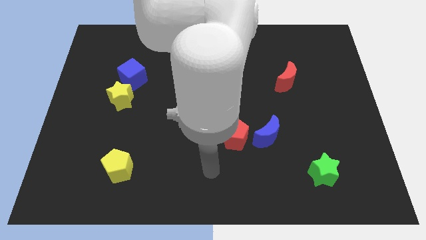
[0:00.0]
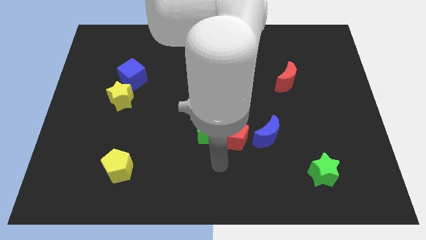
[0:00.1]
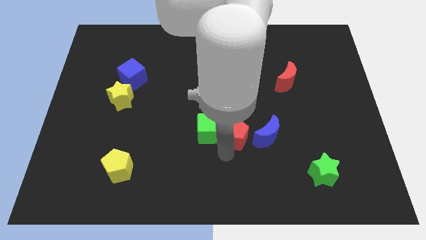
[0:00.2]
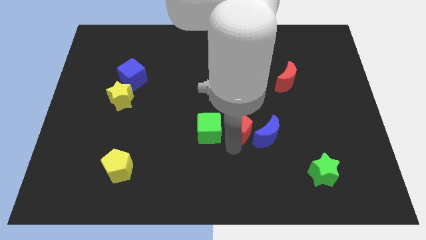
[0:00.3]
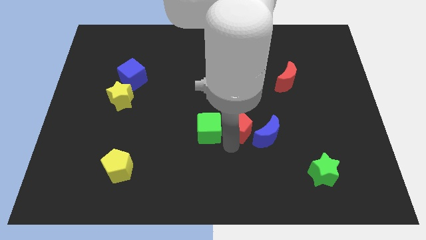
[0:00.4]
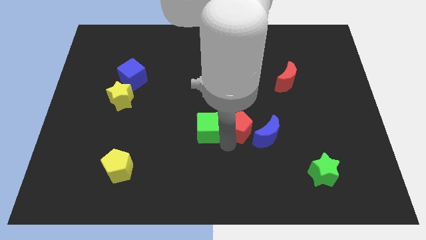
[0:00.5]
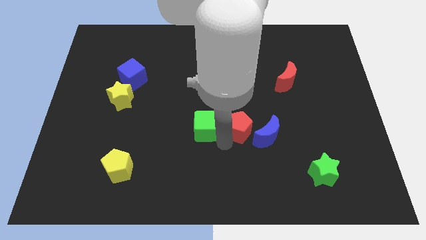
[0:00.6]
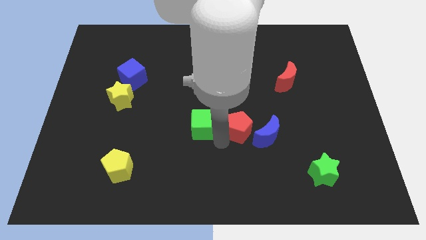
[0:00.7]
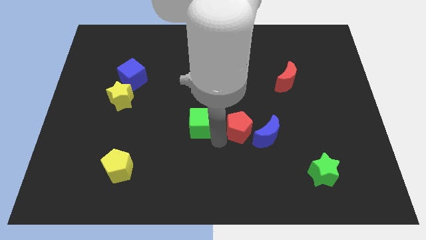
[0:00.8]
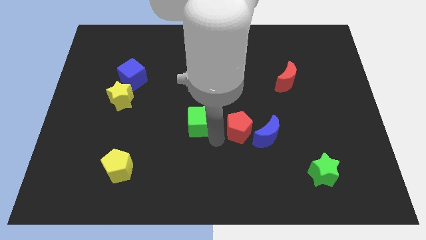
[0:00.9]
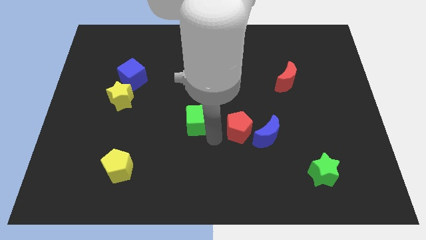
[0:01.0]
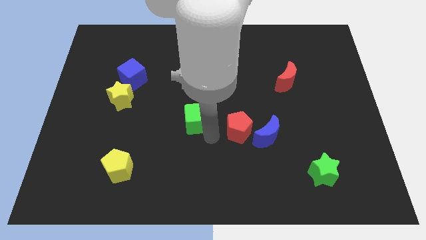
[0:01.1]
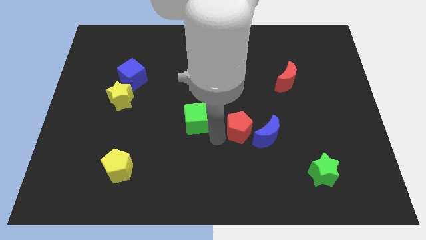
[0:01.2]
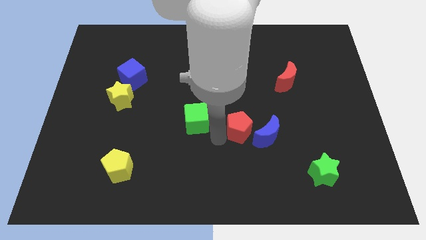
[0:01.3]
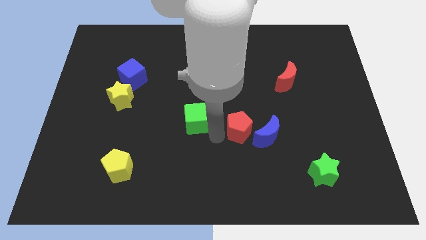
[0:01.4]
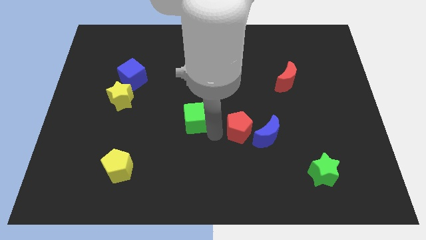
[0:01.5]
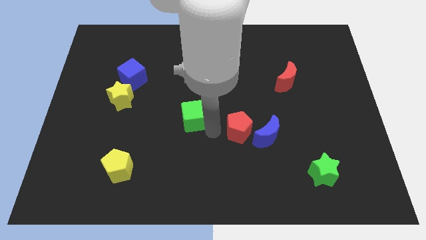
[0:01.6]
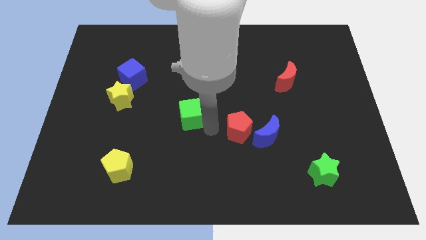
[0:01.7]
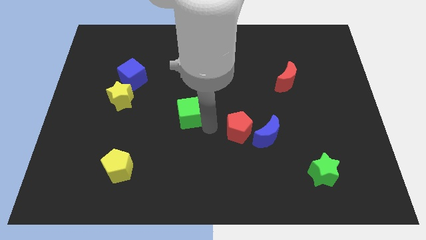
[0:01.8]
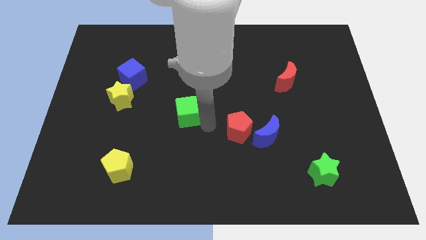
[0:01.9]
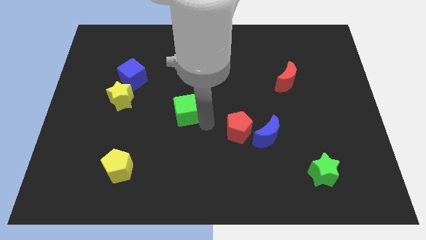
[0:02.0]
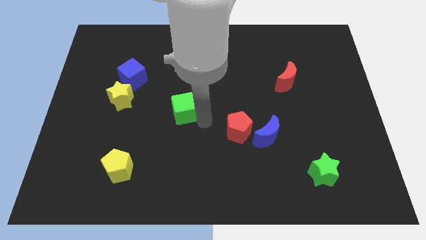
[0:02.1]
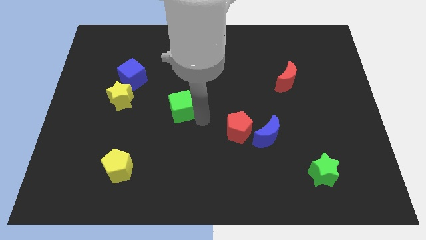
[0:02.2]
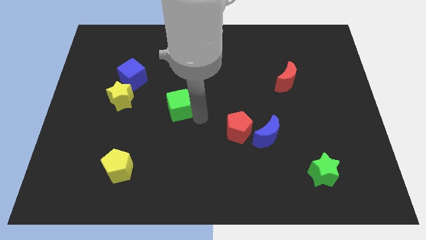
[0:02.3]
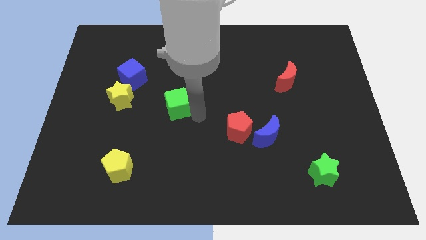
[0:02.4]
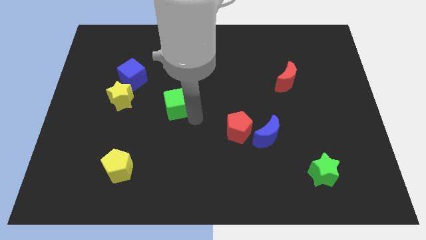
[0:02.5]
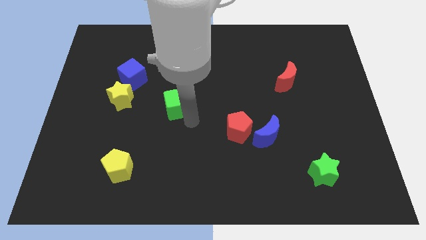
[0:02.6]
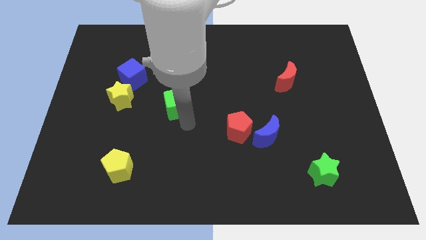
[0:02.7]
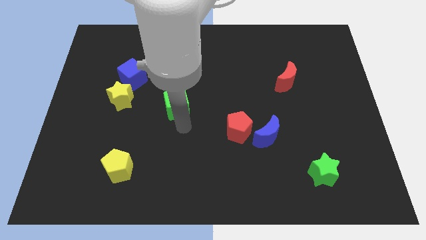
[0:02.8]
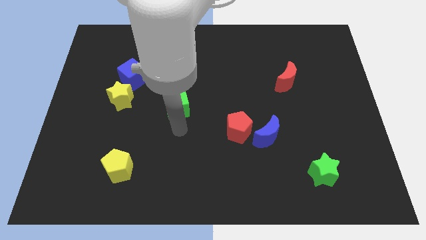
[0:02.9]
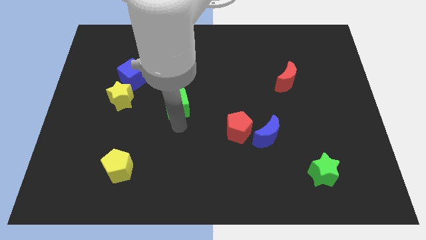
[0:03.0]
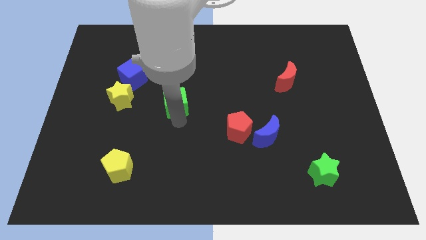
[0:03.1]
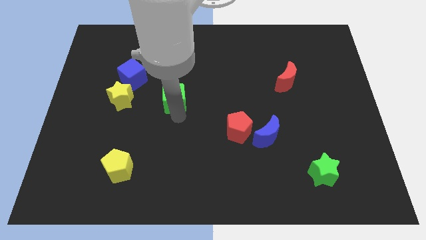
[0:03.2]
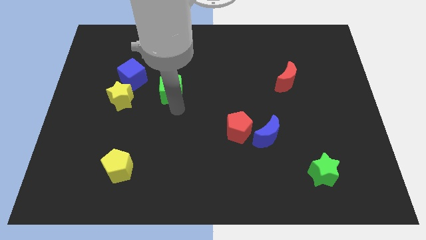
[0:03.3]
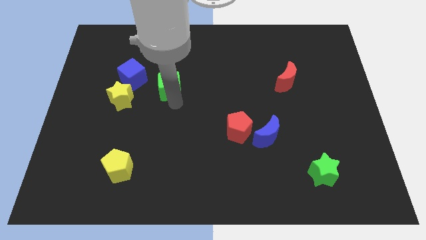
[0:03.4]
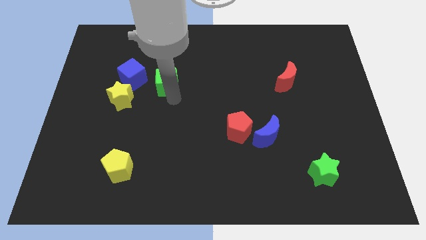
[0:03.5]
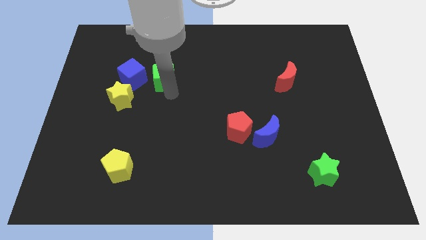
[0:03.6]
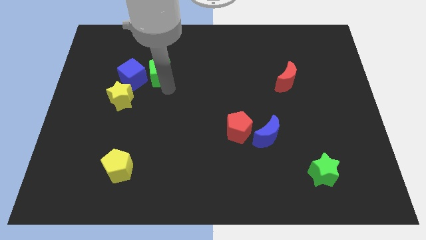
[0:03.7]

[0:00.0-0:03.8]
push the green cube diagonally upwards and left

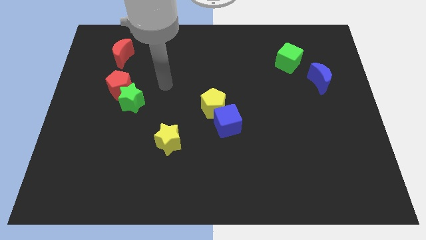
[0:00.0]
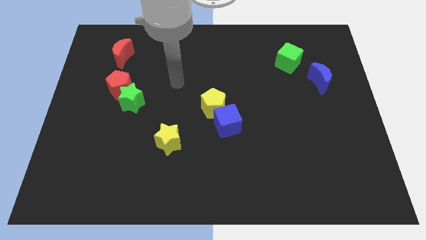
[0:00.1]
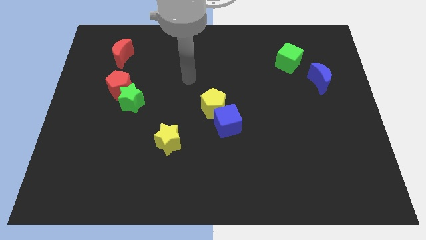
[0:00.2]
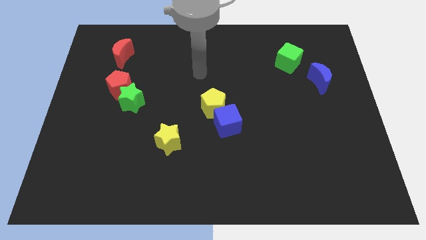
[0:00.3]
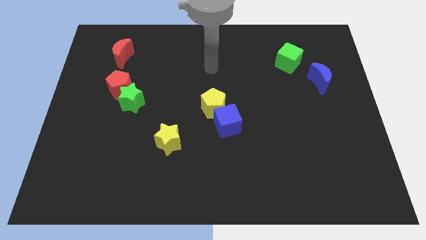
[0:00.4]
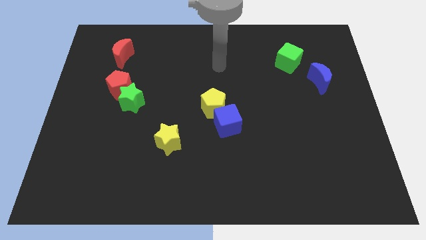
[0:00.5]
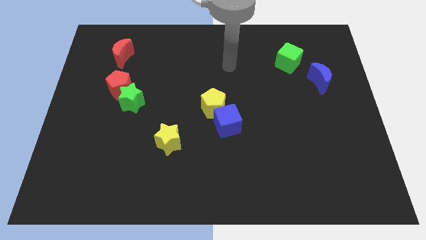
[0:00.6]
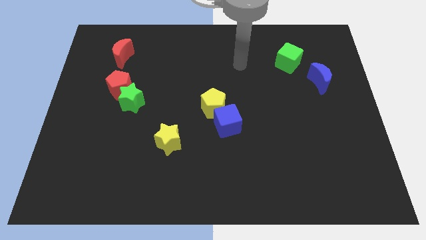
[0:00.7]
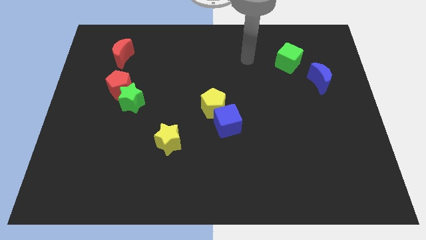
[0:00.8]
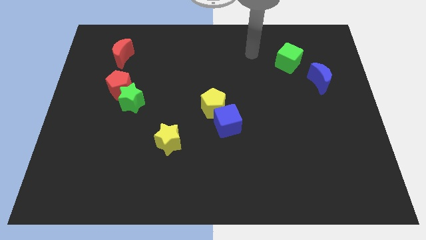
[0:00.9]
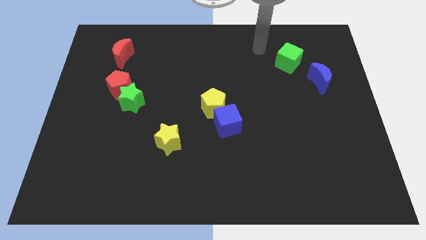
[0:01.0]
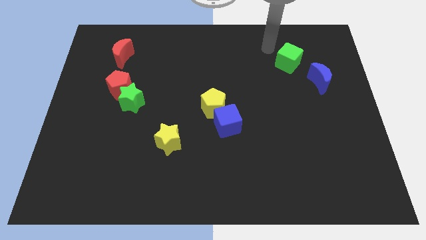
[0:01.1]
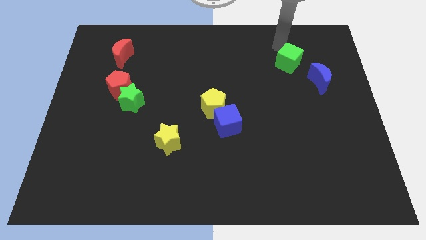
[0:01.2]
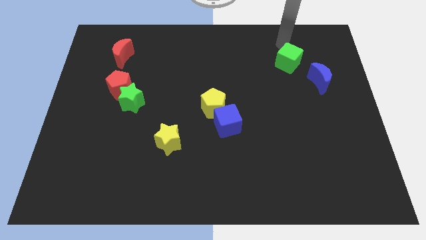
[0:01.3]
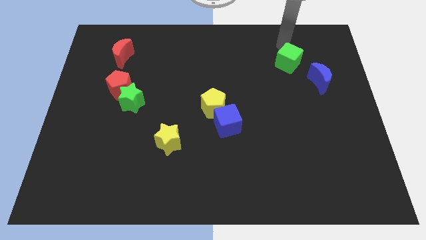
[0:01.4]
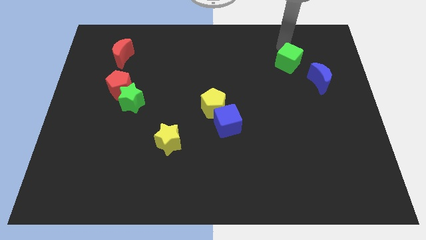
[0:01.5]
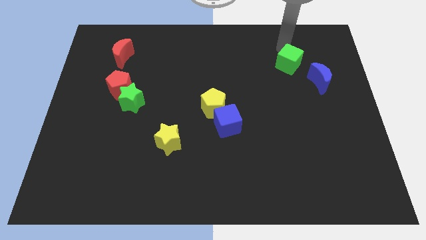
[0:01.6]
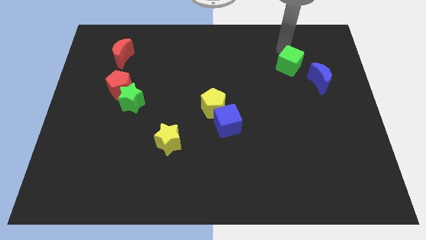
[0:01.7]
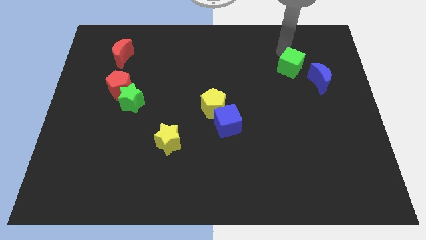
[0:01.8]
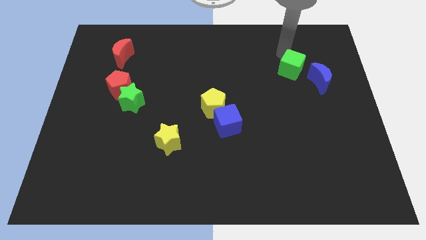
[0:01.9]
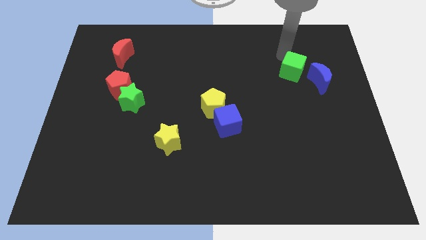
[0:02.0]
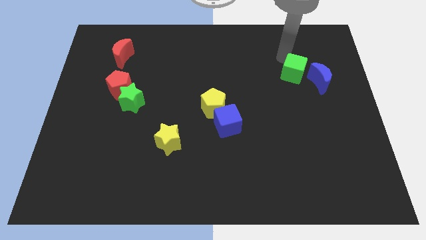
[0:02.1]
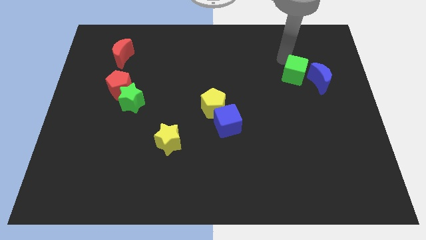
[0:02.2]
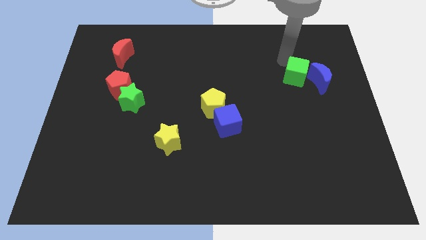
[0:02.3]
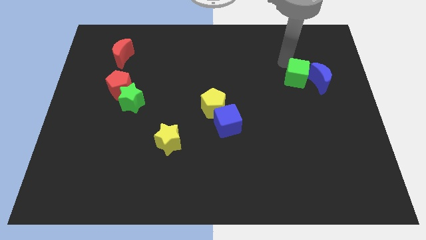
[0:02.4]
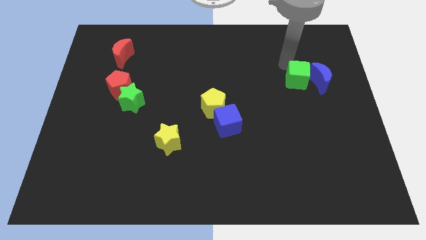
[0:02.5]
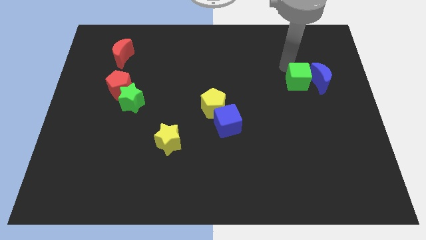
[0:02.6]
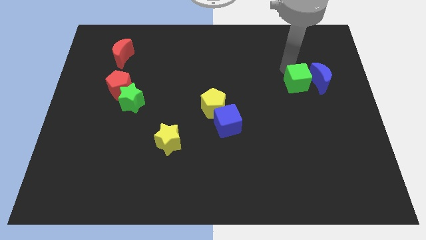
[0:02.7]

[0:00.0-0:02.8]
move the green cube downwards slightly

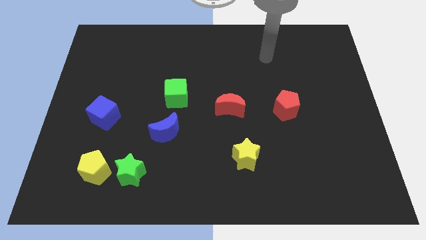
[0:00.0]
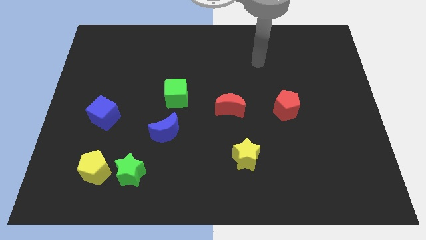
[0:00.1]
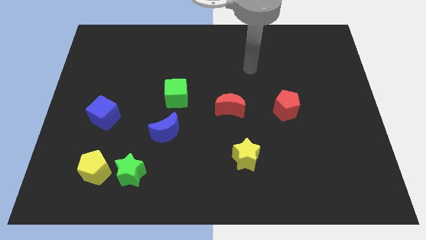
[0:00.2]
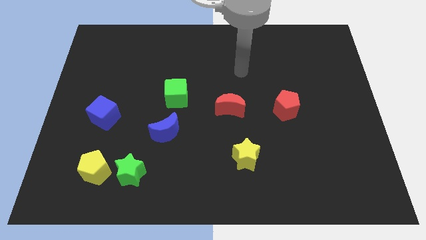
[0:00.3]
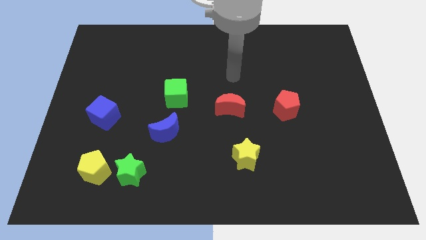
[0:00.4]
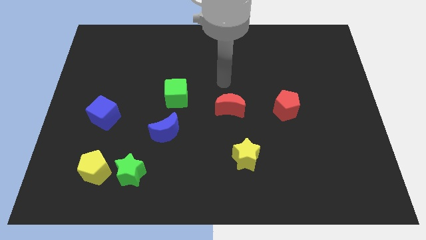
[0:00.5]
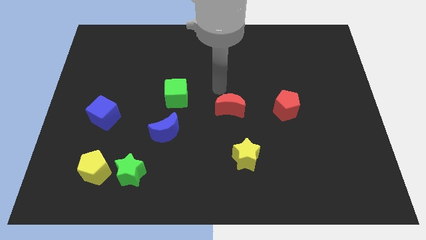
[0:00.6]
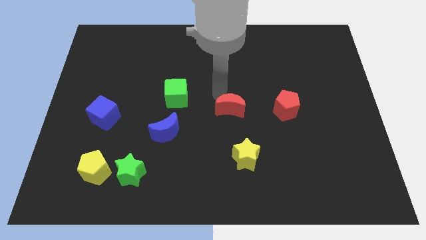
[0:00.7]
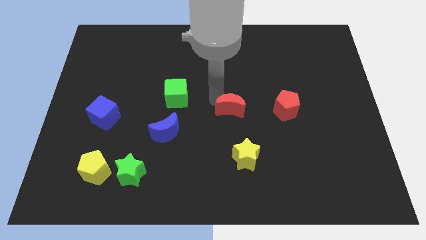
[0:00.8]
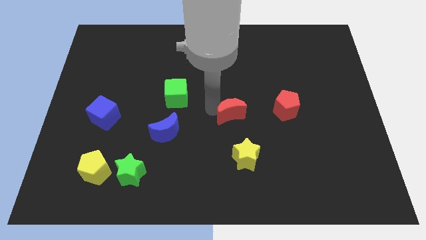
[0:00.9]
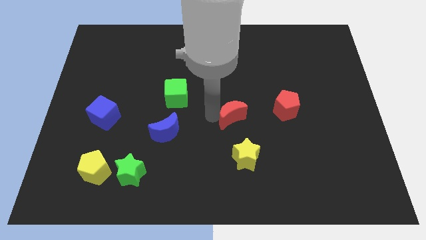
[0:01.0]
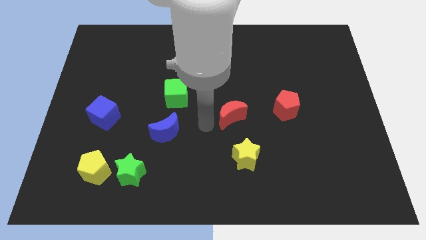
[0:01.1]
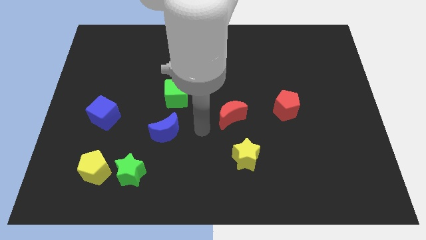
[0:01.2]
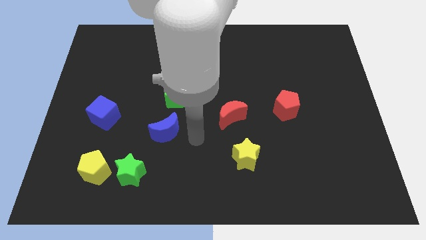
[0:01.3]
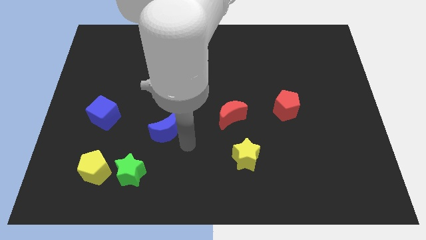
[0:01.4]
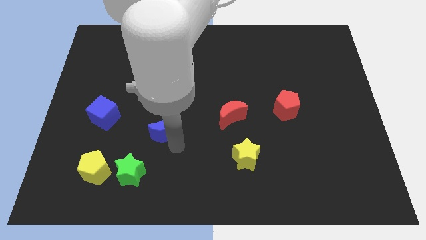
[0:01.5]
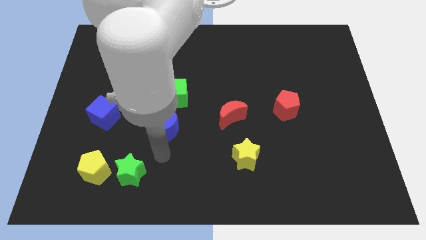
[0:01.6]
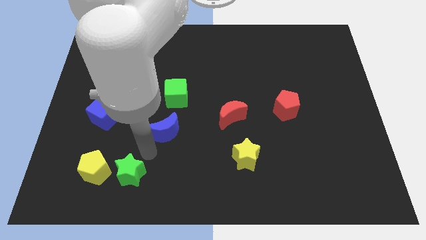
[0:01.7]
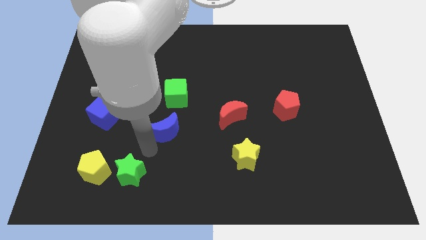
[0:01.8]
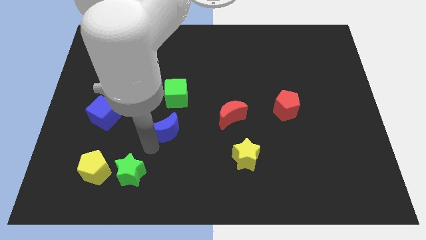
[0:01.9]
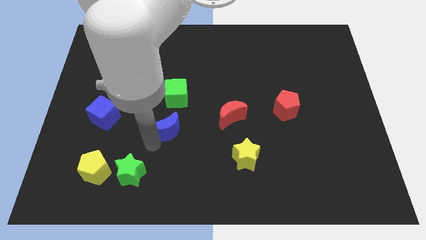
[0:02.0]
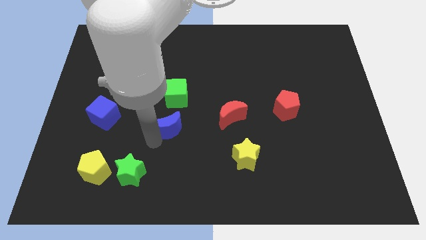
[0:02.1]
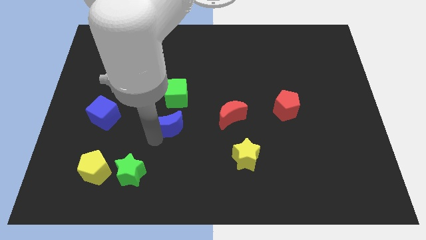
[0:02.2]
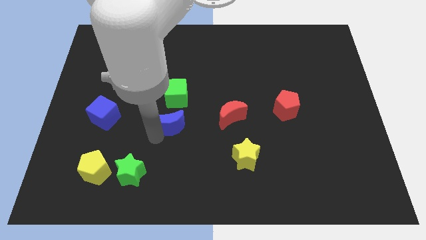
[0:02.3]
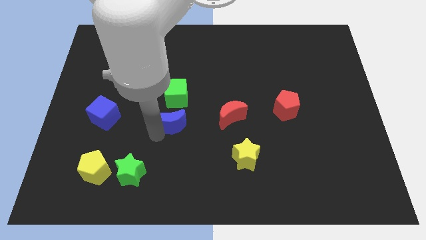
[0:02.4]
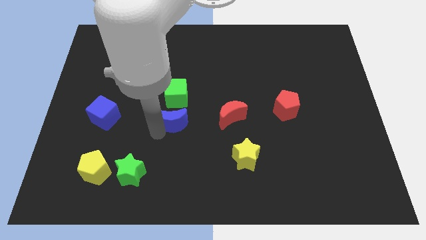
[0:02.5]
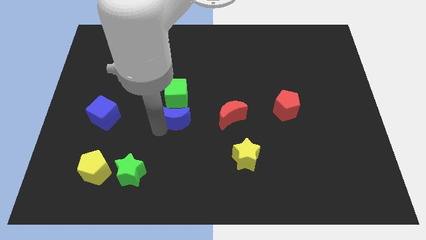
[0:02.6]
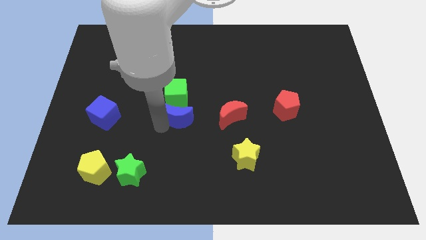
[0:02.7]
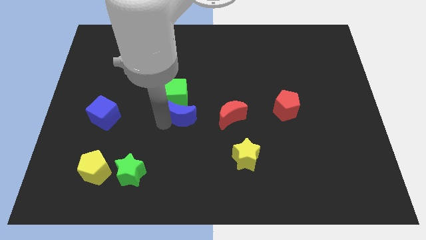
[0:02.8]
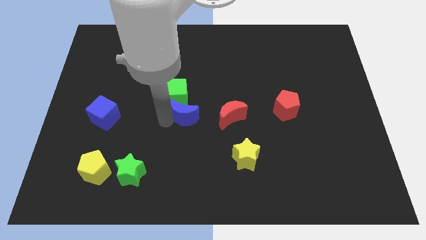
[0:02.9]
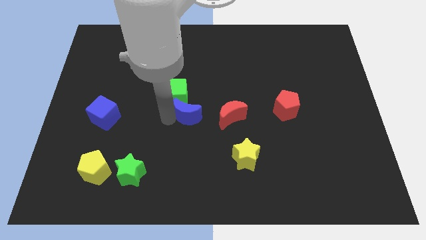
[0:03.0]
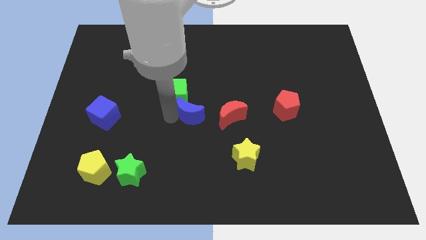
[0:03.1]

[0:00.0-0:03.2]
slide the blue moon up and to the right somewhat
